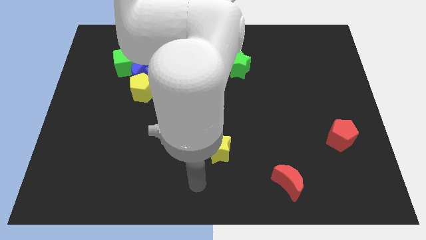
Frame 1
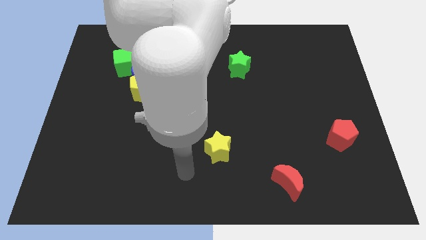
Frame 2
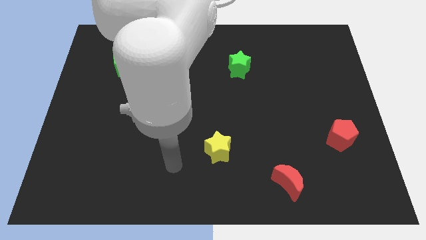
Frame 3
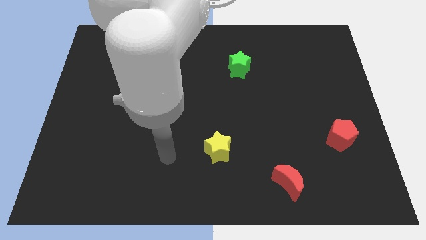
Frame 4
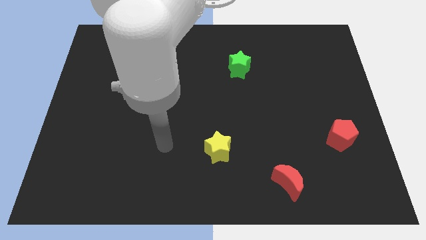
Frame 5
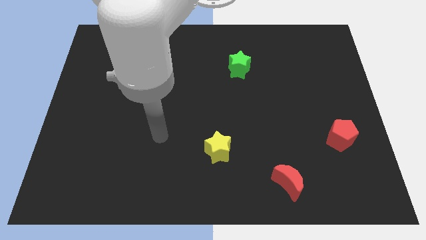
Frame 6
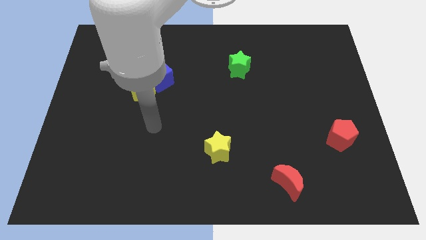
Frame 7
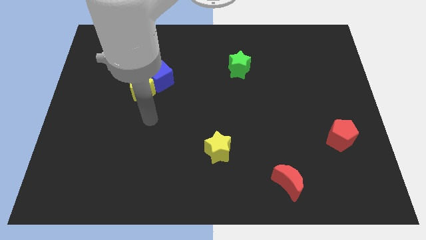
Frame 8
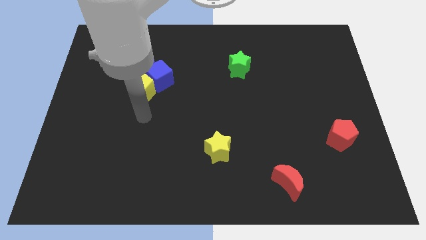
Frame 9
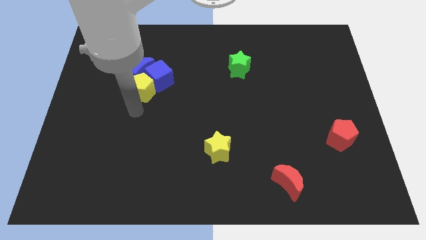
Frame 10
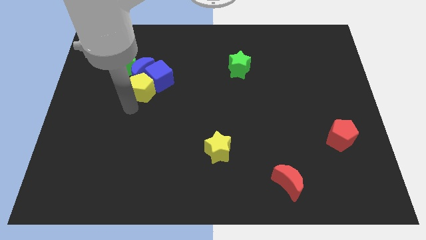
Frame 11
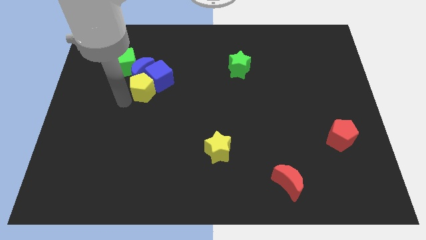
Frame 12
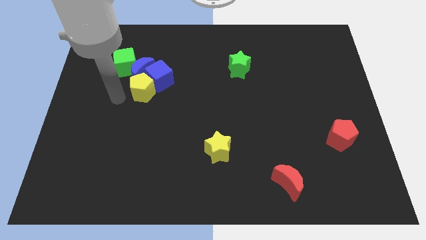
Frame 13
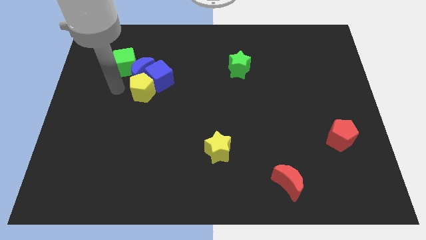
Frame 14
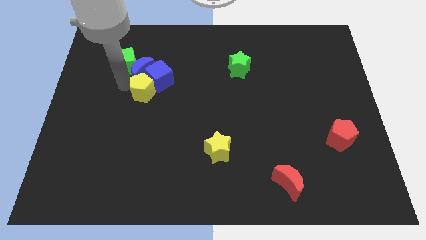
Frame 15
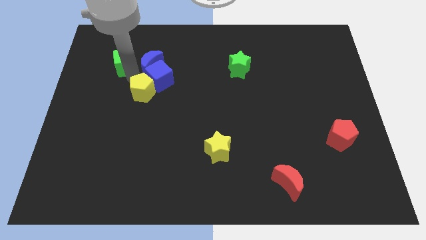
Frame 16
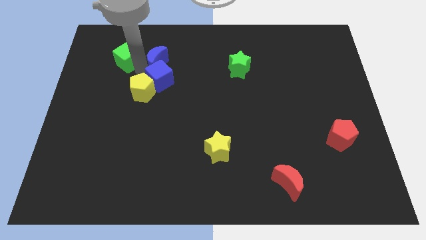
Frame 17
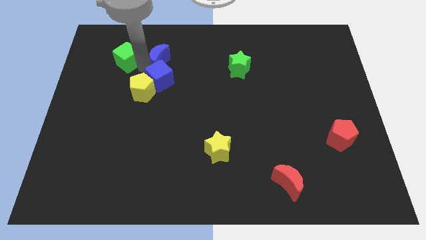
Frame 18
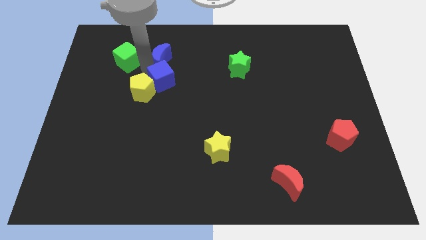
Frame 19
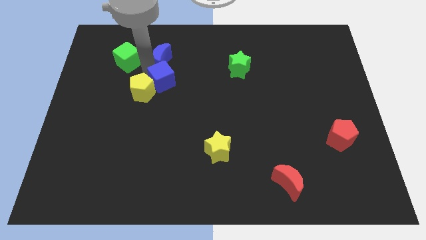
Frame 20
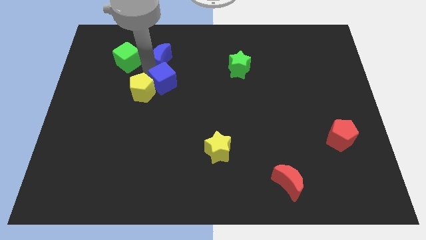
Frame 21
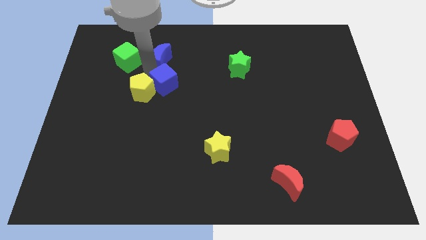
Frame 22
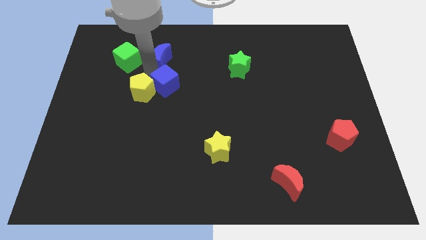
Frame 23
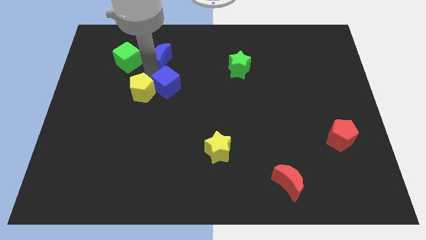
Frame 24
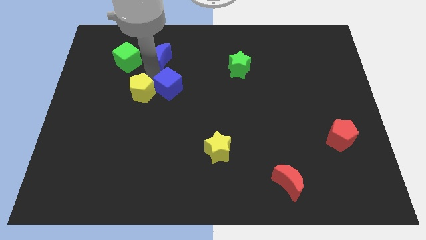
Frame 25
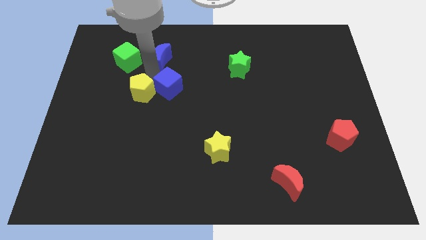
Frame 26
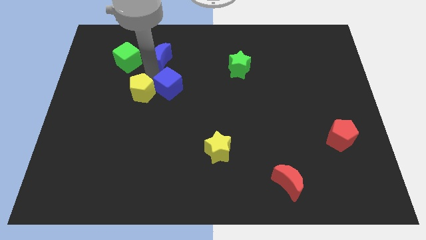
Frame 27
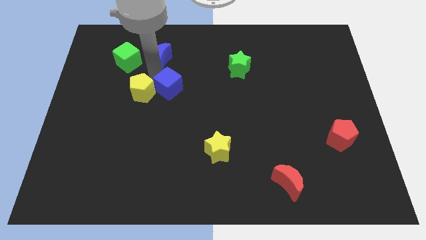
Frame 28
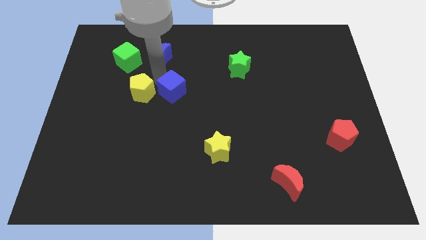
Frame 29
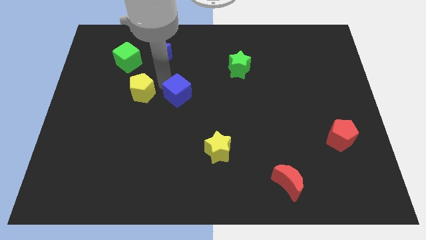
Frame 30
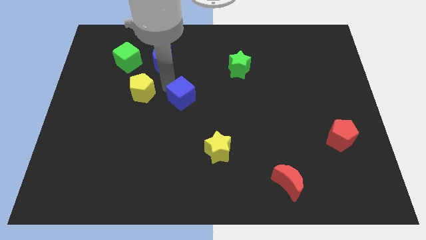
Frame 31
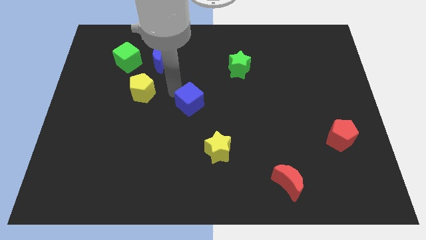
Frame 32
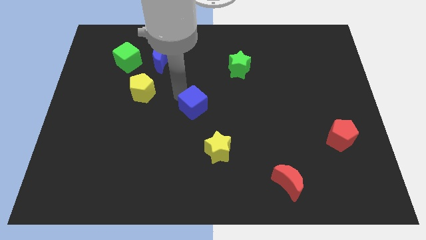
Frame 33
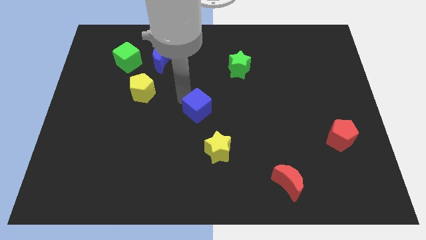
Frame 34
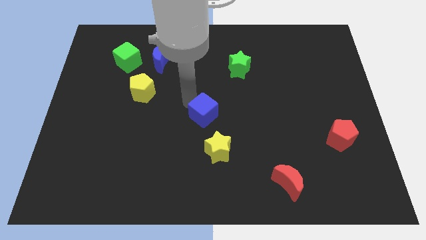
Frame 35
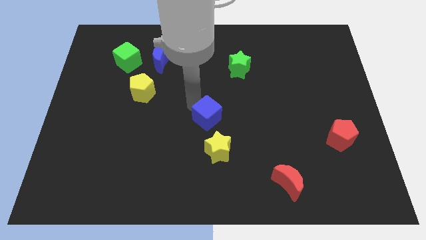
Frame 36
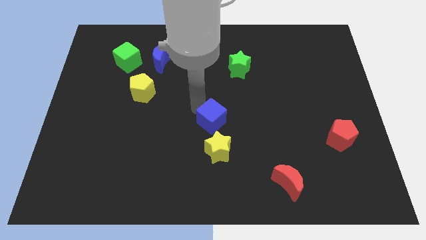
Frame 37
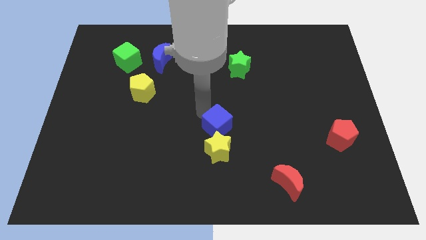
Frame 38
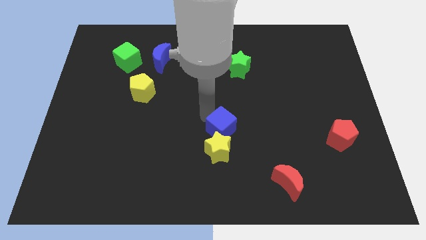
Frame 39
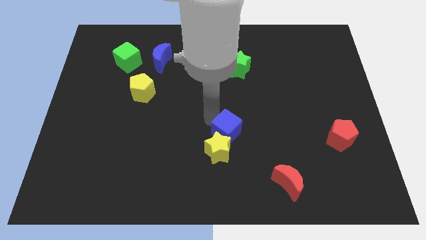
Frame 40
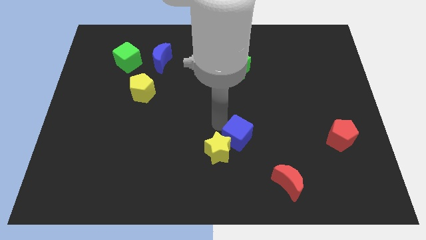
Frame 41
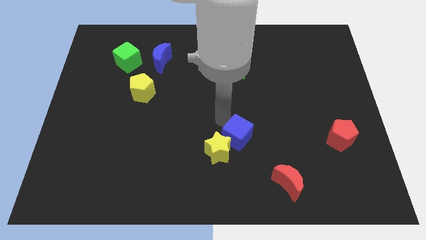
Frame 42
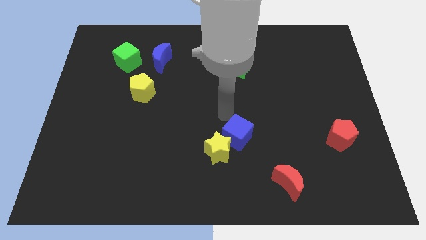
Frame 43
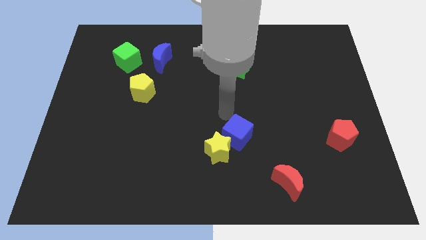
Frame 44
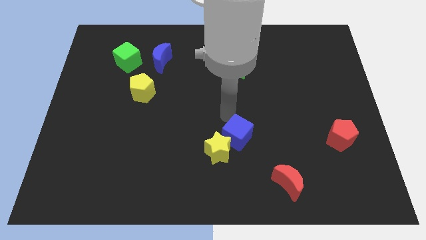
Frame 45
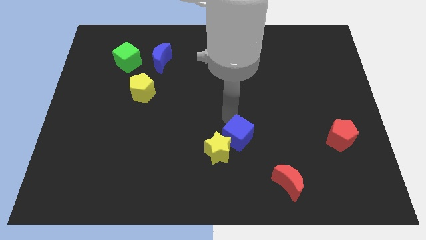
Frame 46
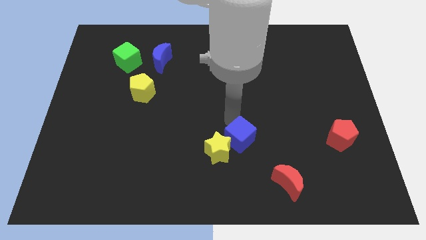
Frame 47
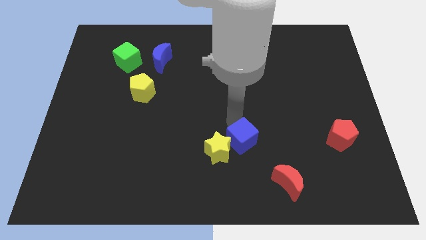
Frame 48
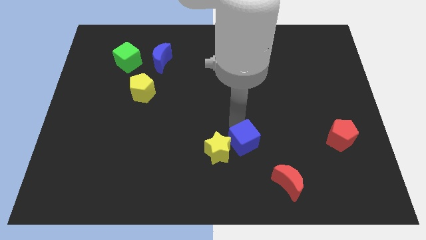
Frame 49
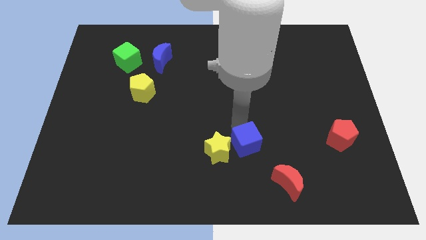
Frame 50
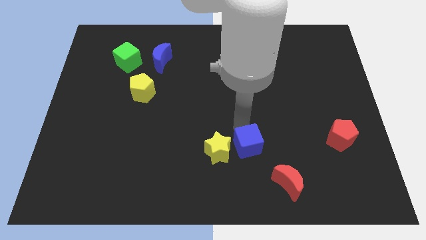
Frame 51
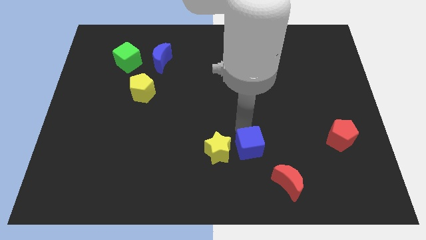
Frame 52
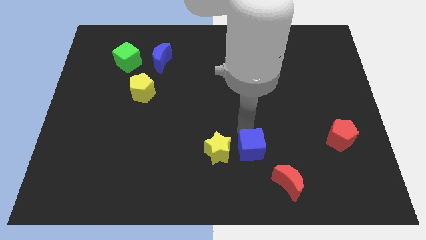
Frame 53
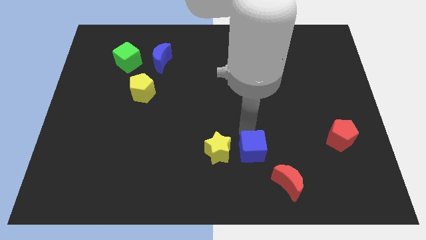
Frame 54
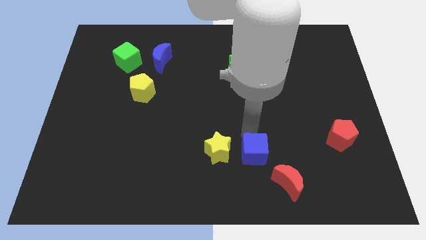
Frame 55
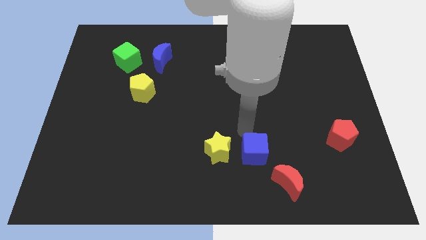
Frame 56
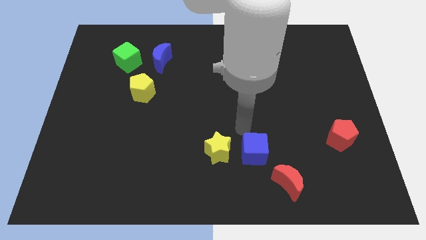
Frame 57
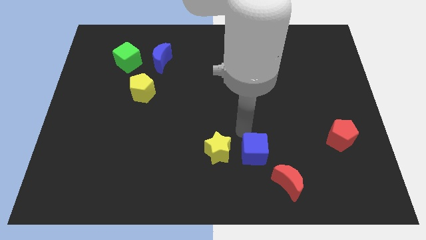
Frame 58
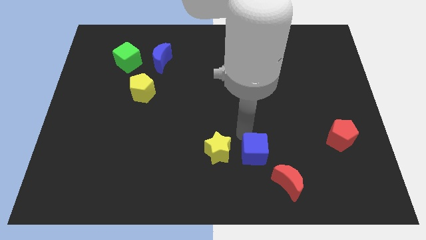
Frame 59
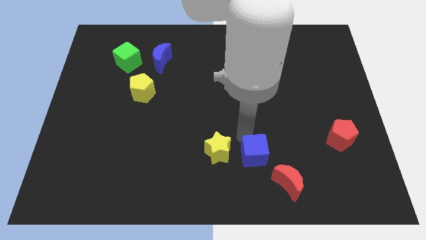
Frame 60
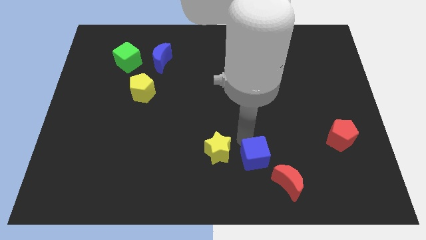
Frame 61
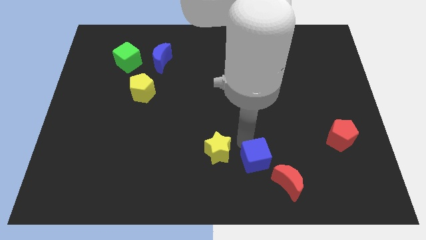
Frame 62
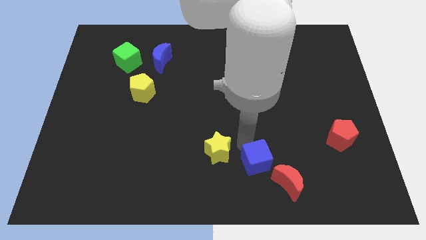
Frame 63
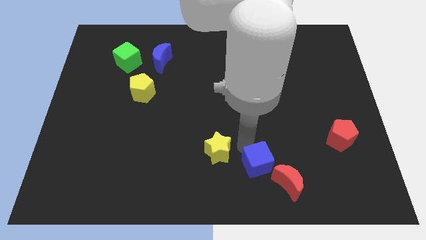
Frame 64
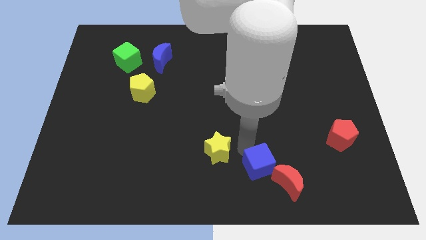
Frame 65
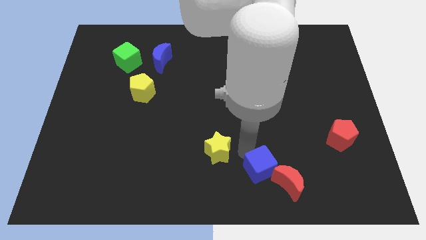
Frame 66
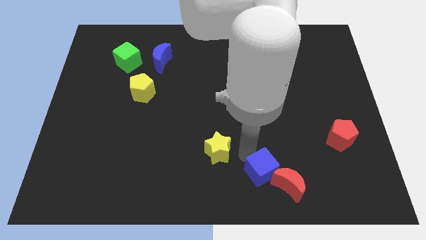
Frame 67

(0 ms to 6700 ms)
put the blue cube to the red moon
